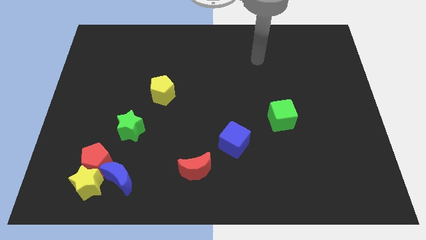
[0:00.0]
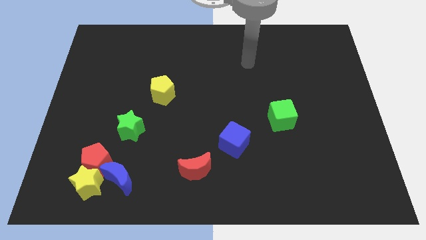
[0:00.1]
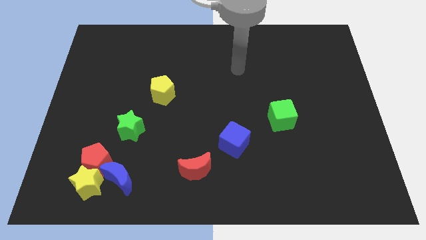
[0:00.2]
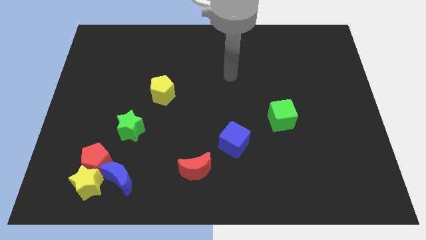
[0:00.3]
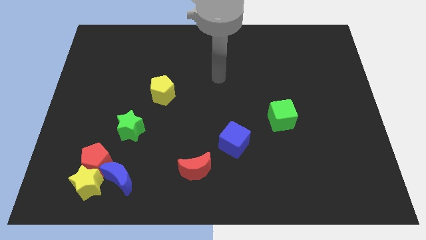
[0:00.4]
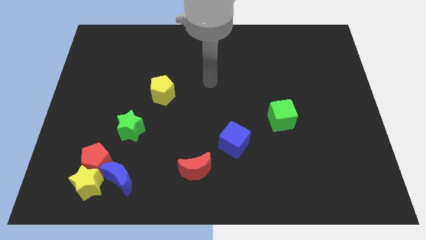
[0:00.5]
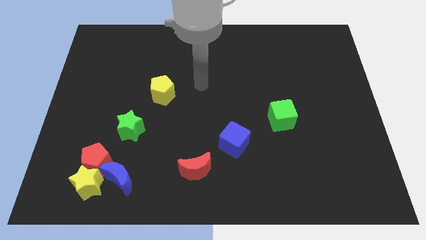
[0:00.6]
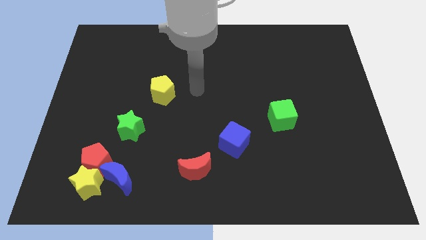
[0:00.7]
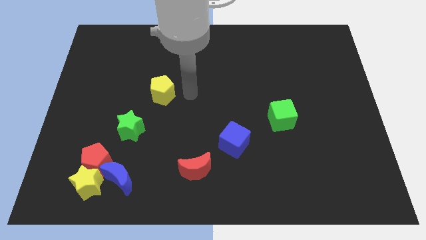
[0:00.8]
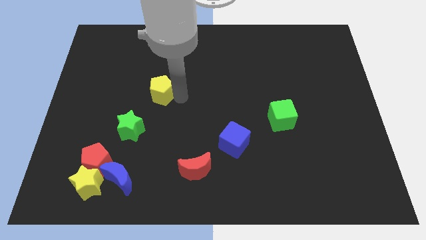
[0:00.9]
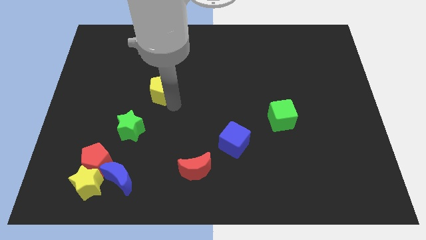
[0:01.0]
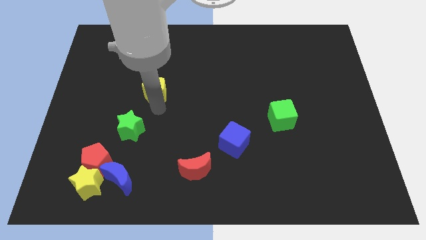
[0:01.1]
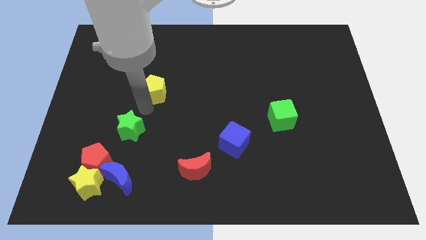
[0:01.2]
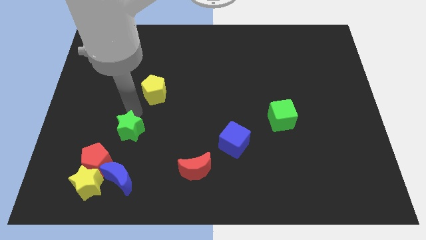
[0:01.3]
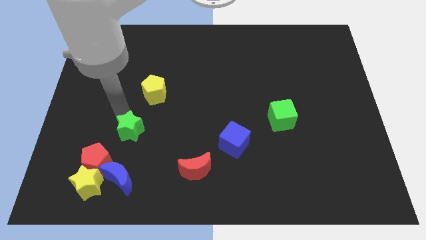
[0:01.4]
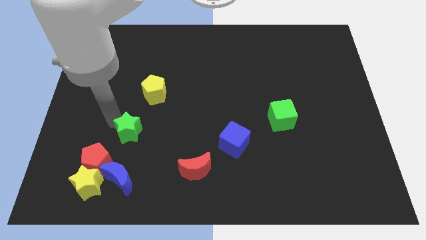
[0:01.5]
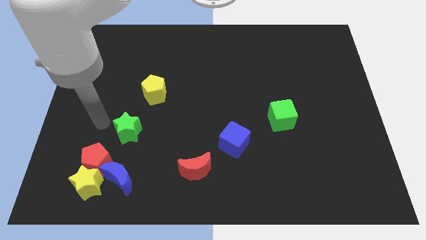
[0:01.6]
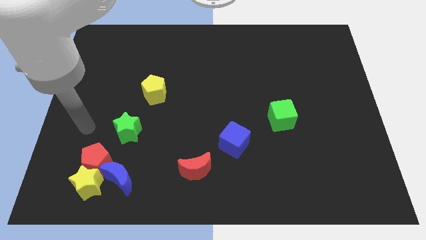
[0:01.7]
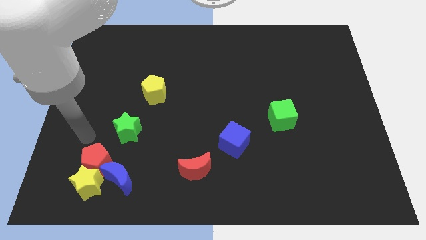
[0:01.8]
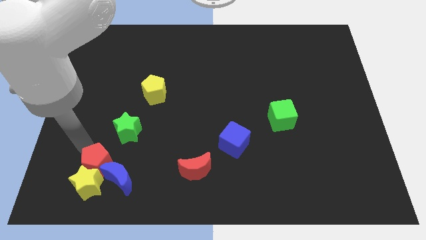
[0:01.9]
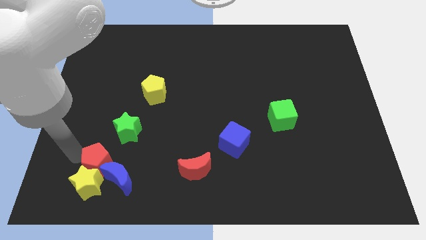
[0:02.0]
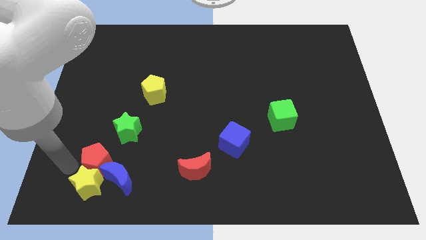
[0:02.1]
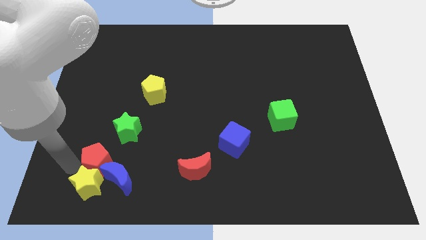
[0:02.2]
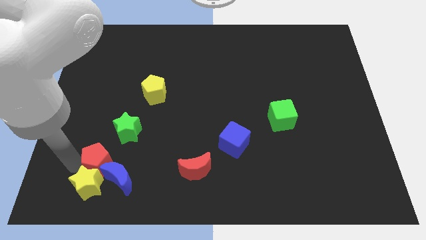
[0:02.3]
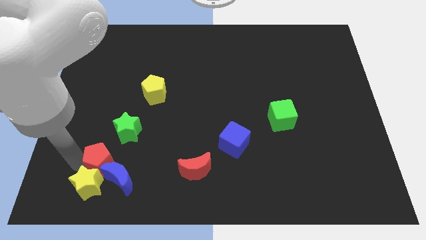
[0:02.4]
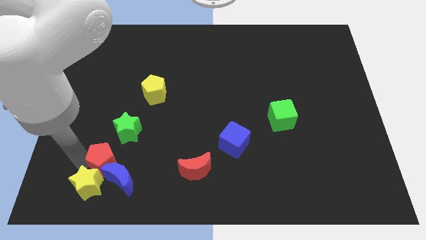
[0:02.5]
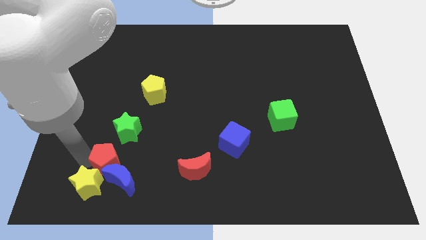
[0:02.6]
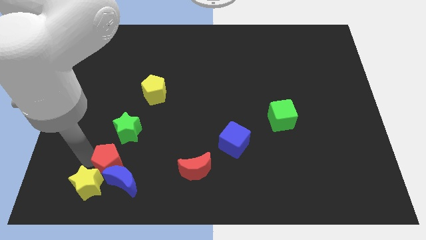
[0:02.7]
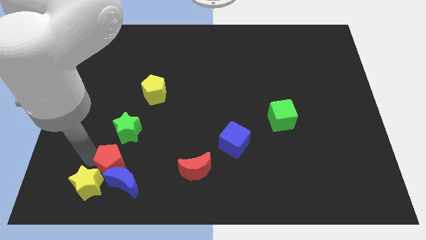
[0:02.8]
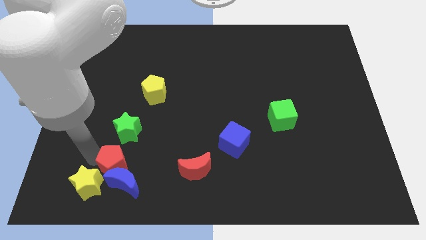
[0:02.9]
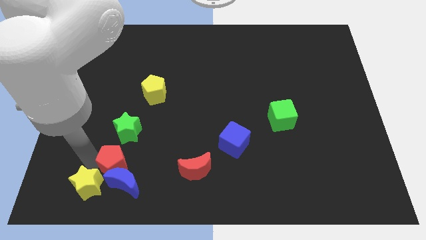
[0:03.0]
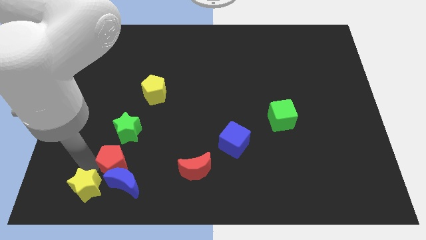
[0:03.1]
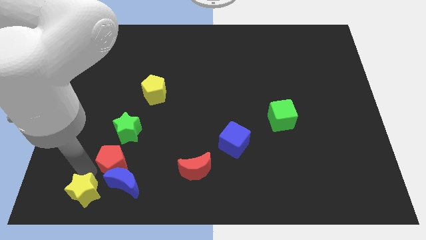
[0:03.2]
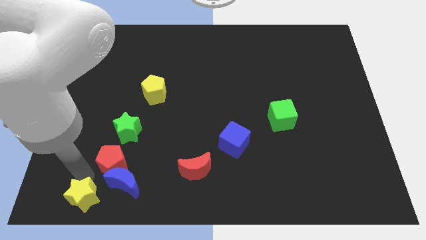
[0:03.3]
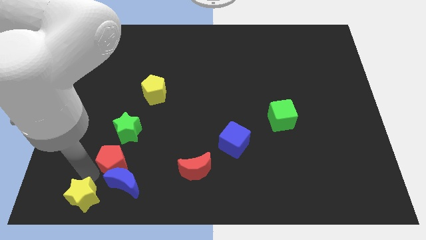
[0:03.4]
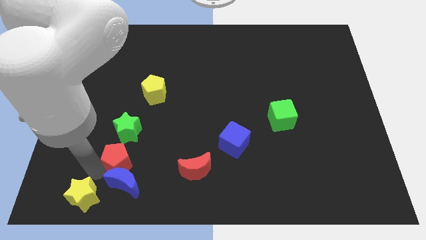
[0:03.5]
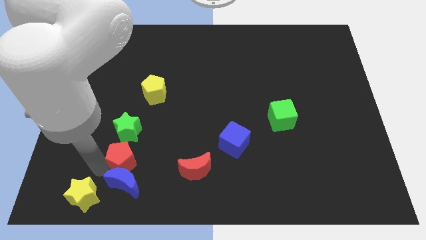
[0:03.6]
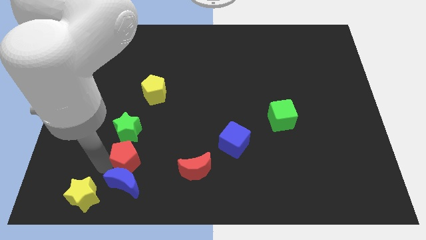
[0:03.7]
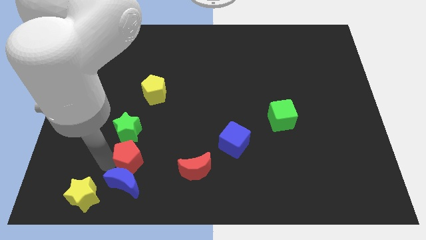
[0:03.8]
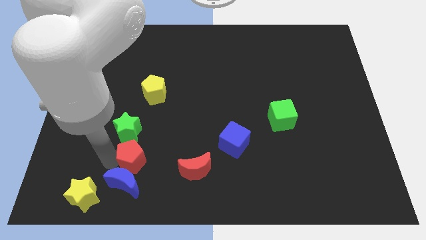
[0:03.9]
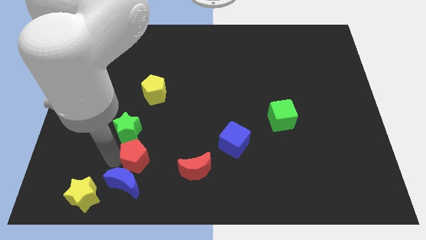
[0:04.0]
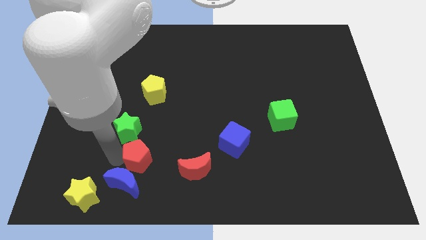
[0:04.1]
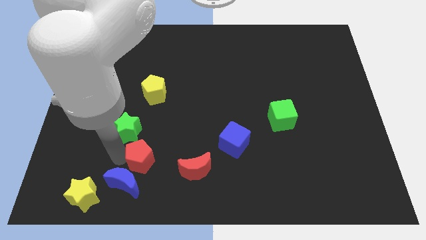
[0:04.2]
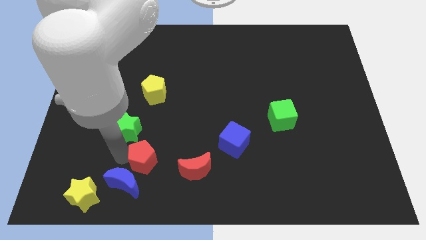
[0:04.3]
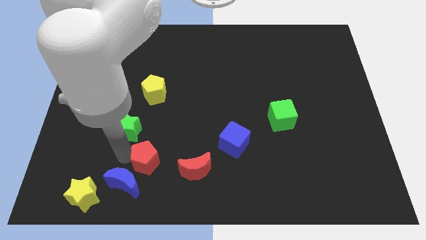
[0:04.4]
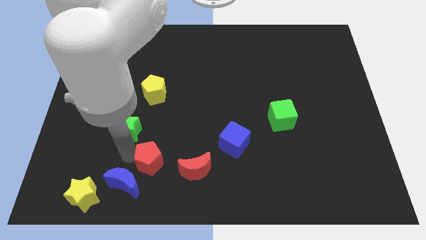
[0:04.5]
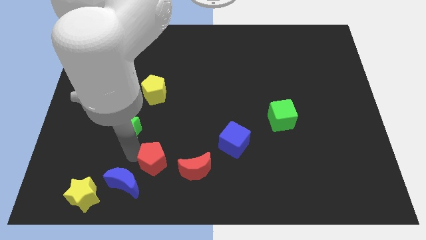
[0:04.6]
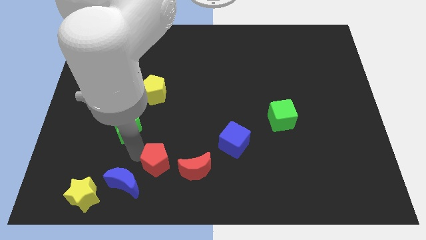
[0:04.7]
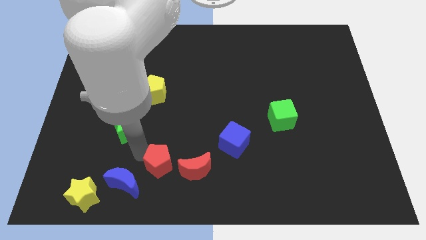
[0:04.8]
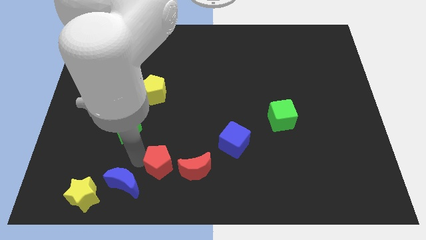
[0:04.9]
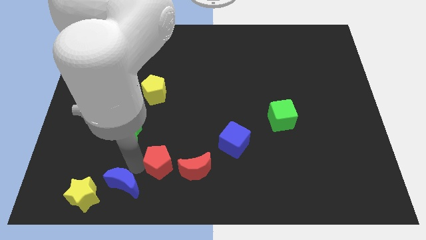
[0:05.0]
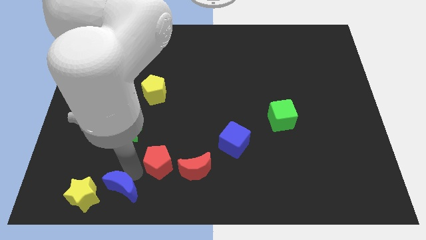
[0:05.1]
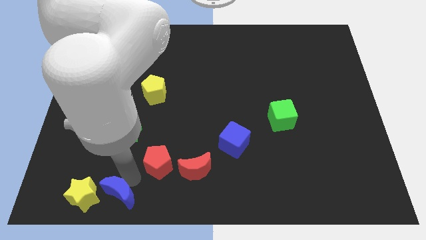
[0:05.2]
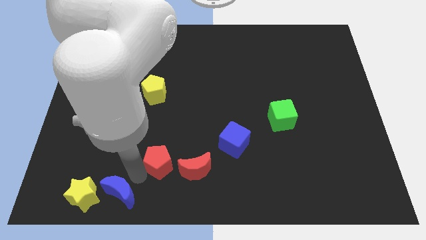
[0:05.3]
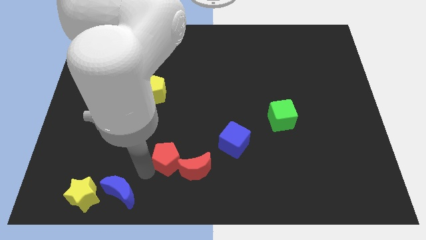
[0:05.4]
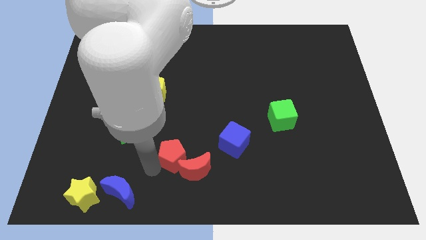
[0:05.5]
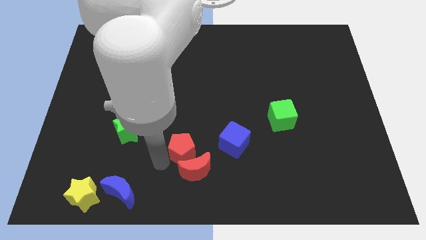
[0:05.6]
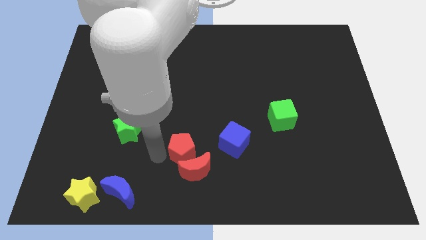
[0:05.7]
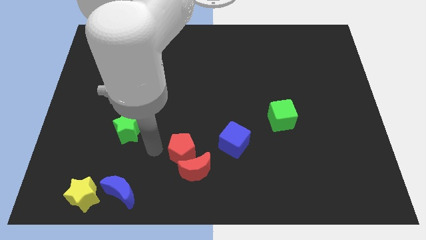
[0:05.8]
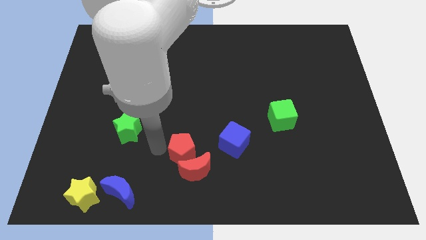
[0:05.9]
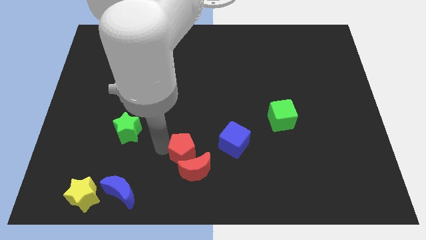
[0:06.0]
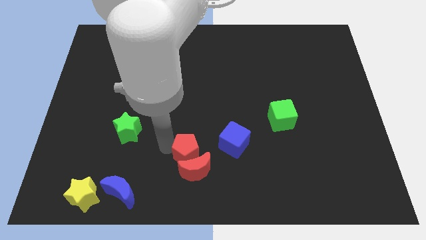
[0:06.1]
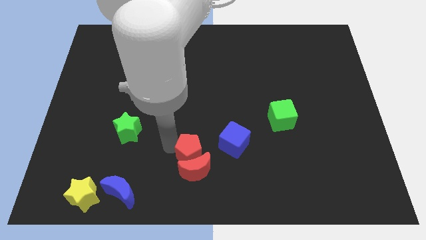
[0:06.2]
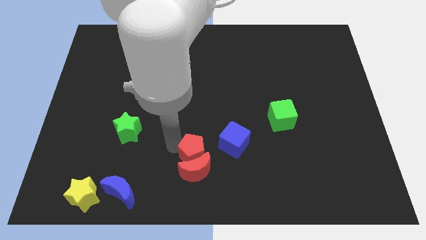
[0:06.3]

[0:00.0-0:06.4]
move the red pentagon to the right

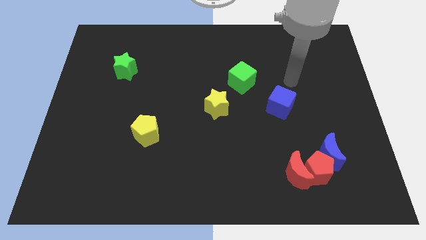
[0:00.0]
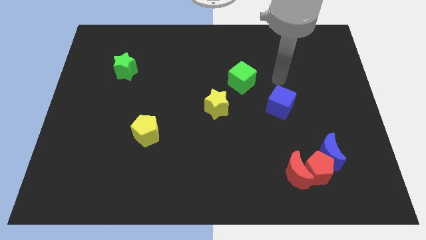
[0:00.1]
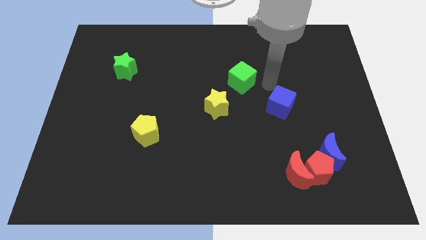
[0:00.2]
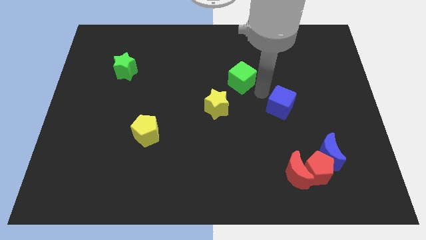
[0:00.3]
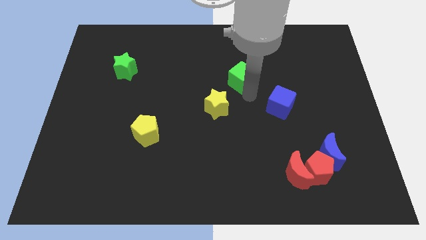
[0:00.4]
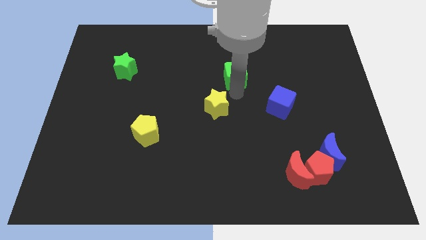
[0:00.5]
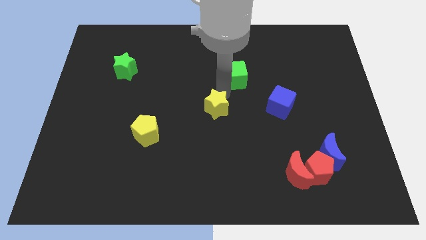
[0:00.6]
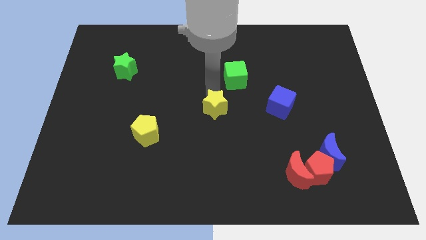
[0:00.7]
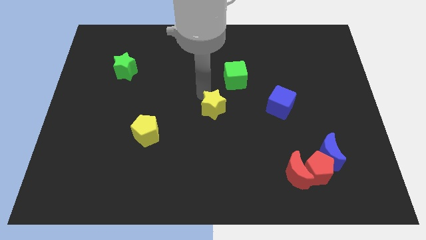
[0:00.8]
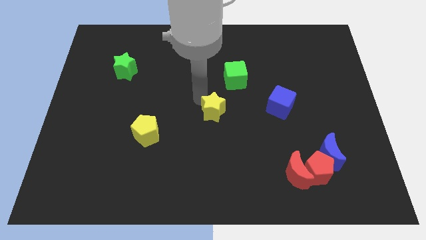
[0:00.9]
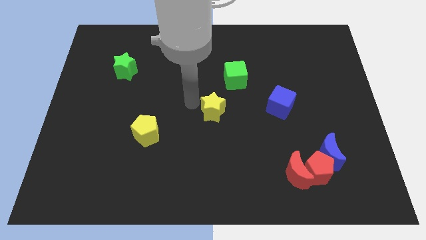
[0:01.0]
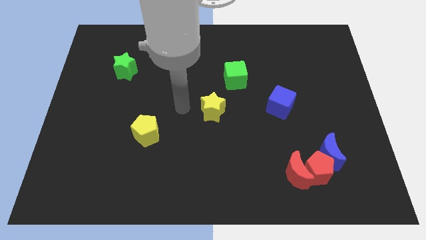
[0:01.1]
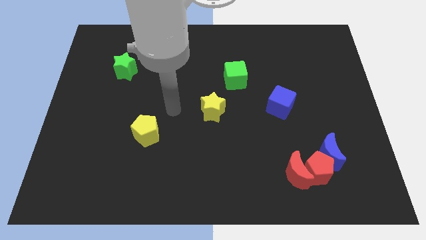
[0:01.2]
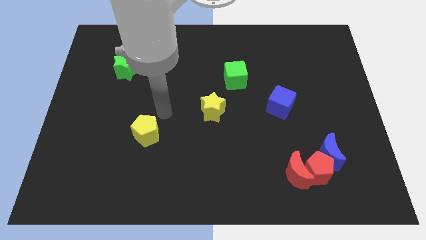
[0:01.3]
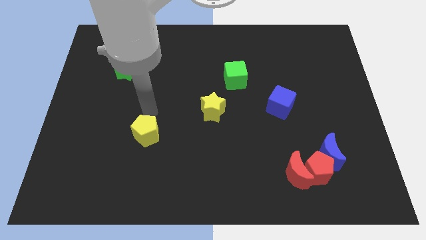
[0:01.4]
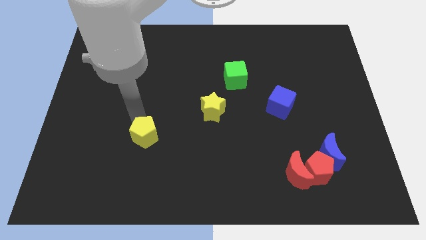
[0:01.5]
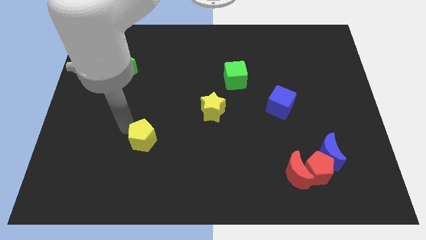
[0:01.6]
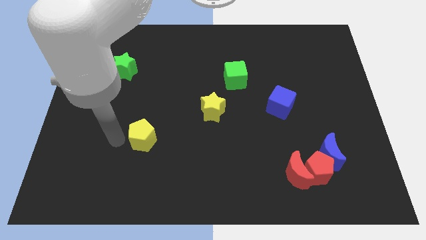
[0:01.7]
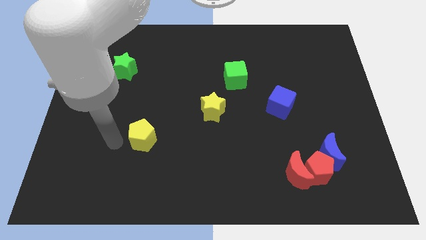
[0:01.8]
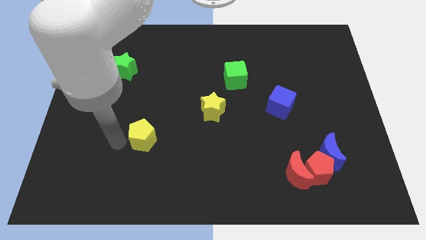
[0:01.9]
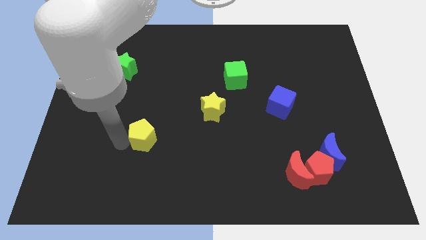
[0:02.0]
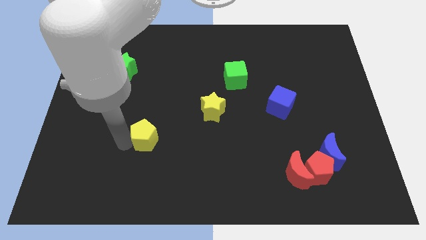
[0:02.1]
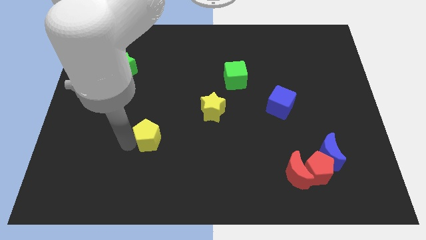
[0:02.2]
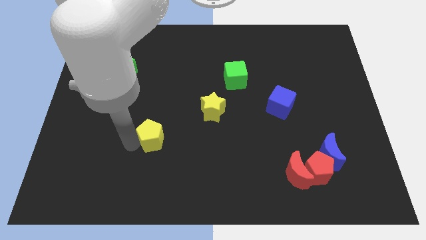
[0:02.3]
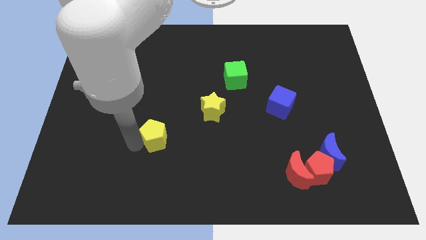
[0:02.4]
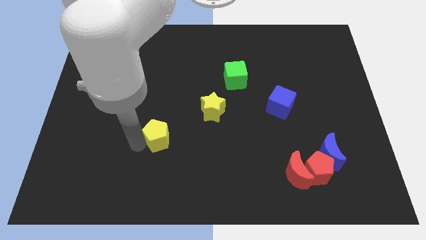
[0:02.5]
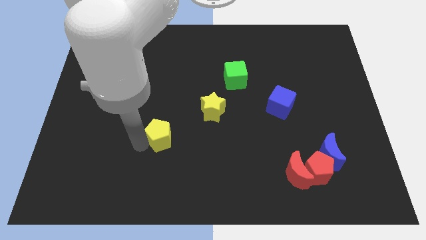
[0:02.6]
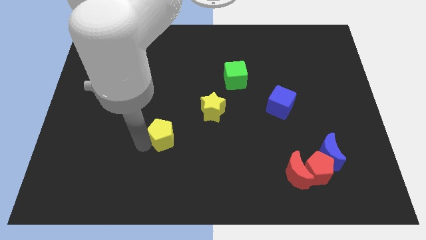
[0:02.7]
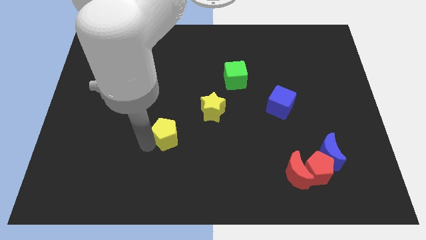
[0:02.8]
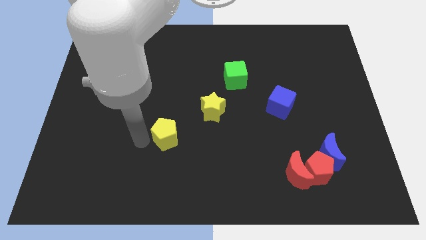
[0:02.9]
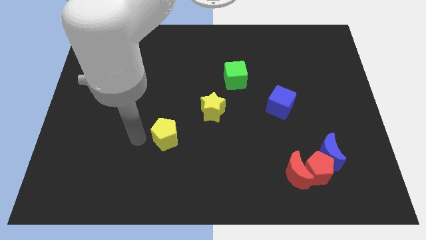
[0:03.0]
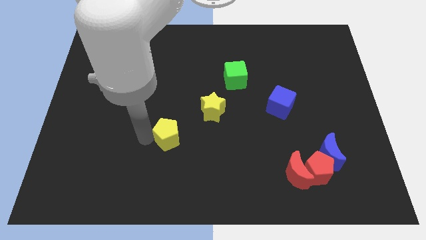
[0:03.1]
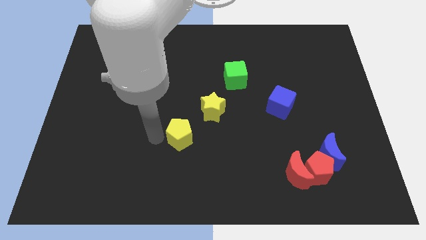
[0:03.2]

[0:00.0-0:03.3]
slide the yellow pentagon to the right somewhat
